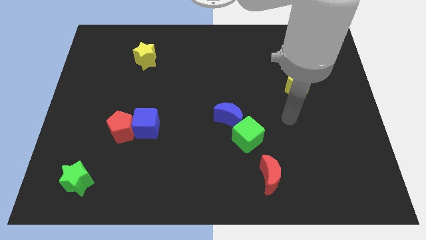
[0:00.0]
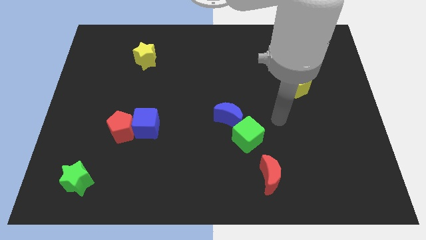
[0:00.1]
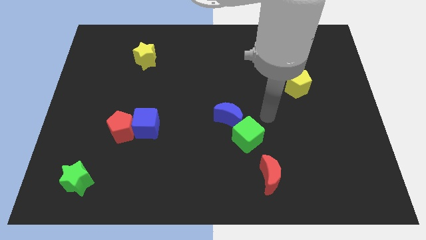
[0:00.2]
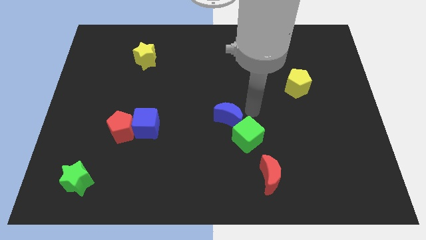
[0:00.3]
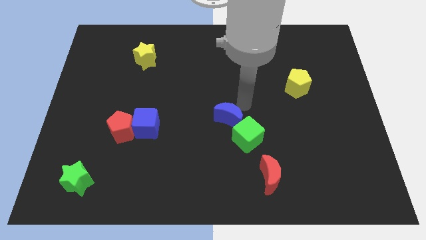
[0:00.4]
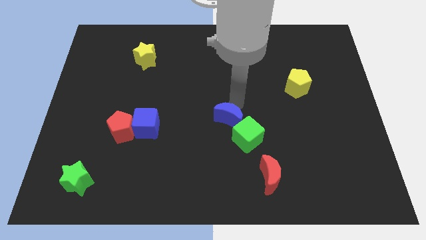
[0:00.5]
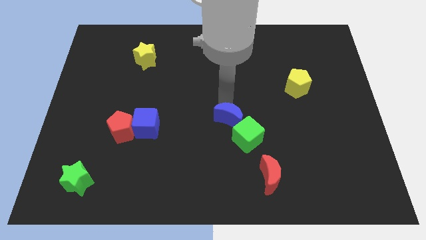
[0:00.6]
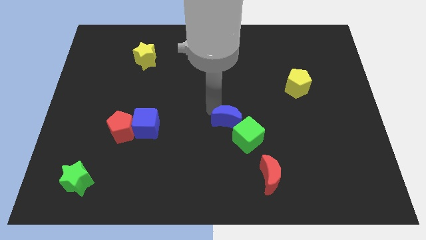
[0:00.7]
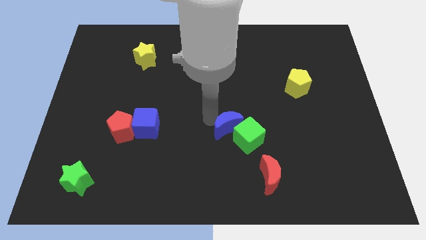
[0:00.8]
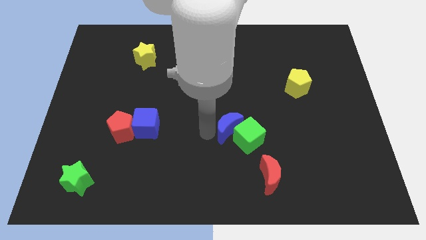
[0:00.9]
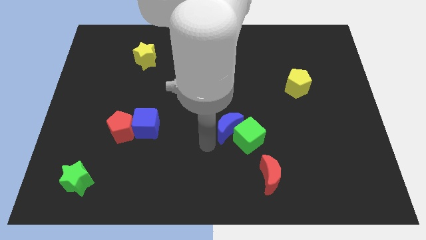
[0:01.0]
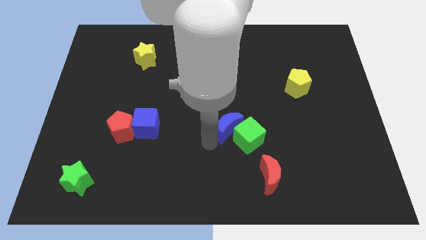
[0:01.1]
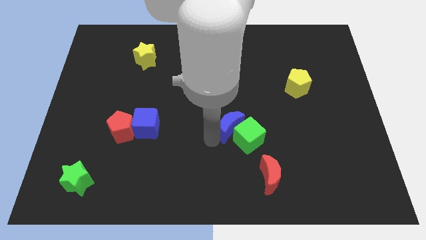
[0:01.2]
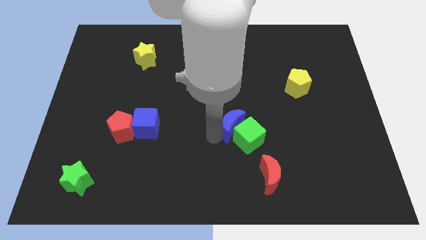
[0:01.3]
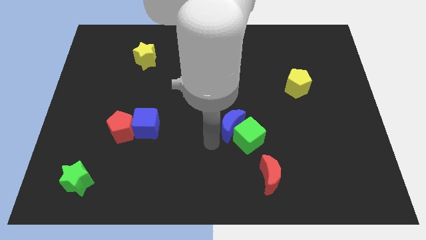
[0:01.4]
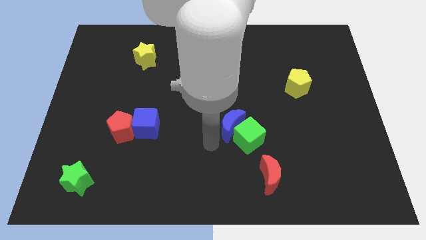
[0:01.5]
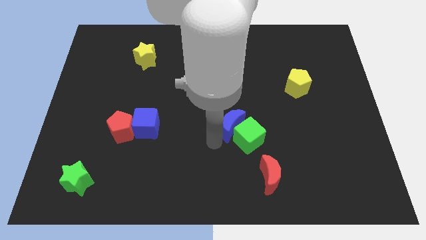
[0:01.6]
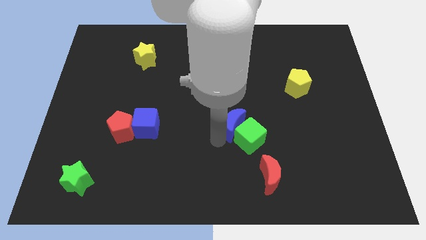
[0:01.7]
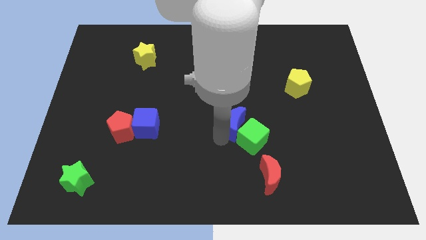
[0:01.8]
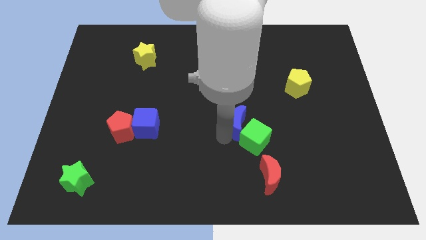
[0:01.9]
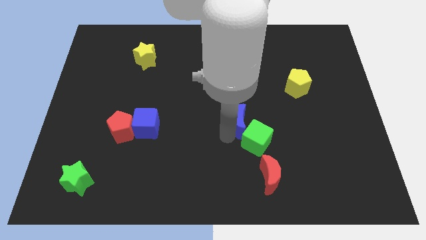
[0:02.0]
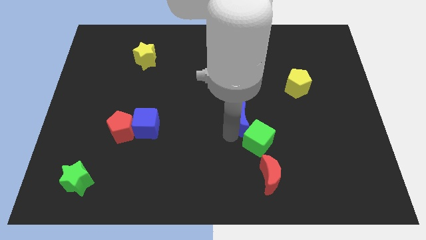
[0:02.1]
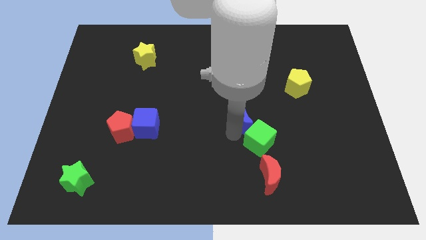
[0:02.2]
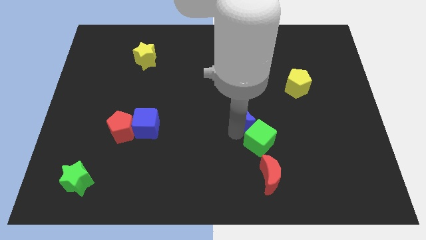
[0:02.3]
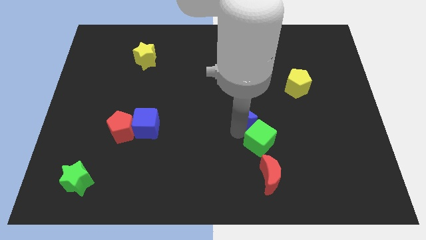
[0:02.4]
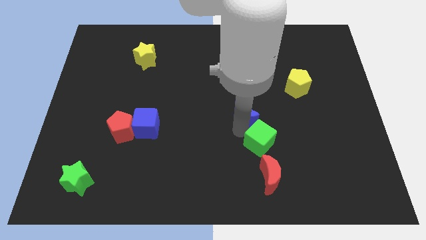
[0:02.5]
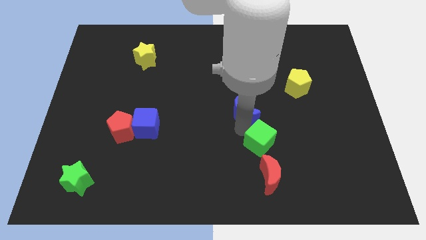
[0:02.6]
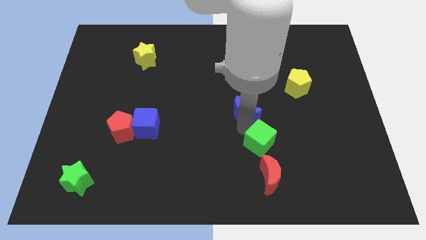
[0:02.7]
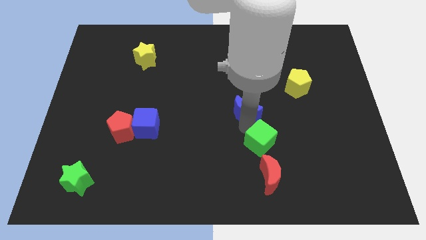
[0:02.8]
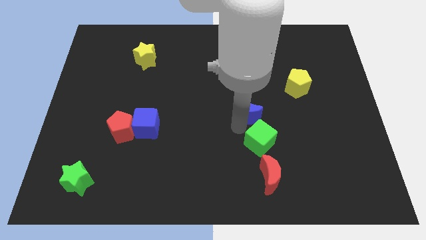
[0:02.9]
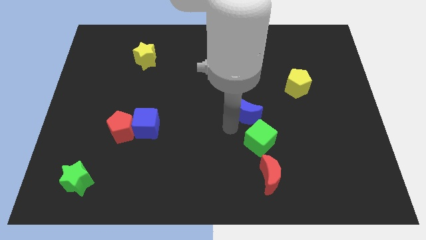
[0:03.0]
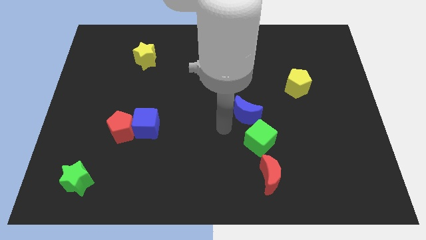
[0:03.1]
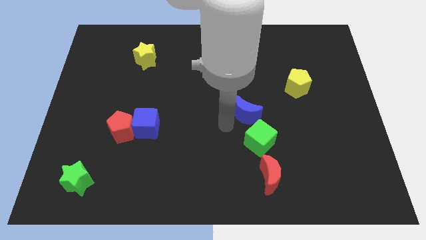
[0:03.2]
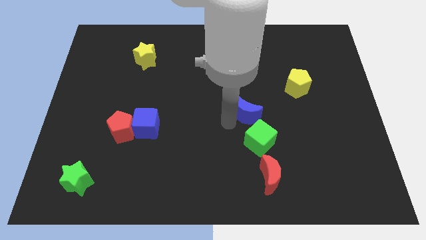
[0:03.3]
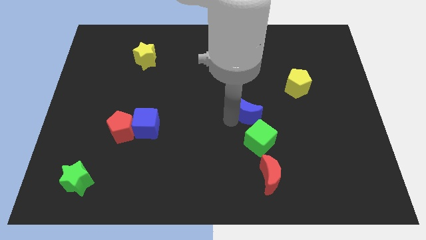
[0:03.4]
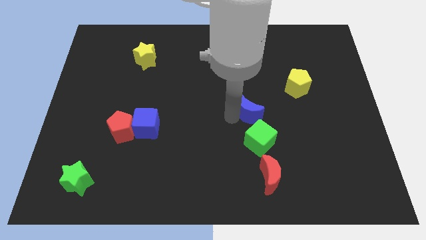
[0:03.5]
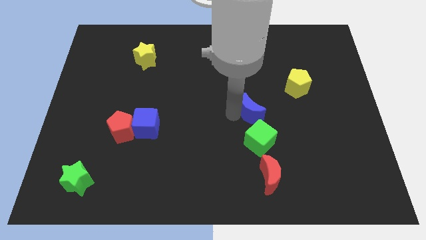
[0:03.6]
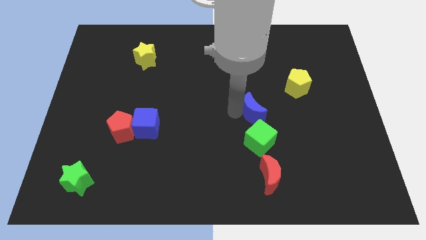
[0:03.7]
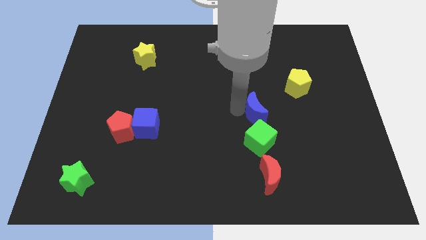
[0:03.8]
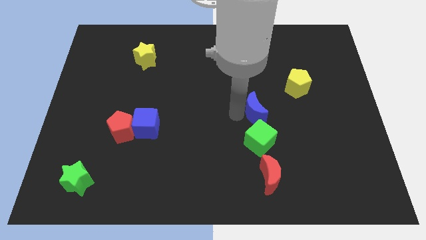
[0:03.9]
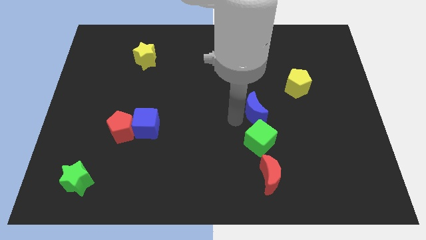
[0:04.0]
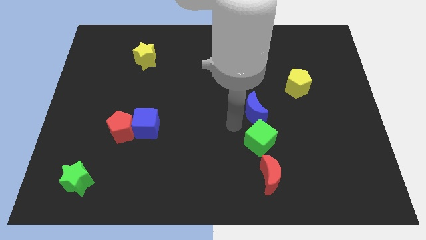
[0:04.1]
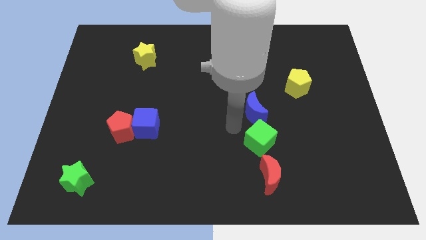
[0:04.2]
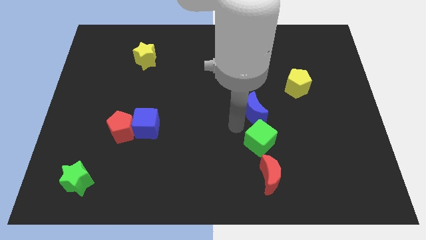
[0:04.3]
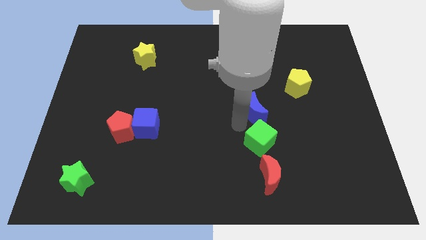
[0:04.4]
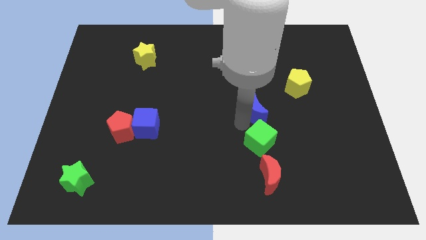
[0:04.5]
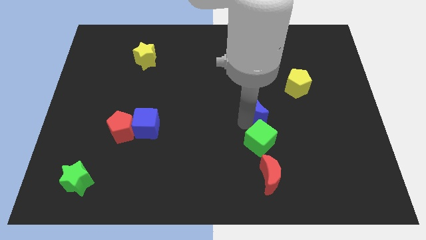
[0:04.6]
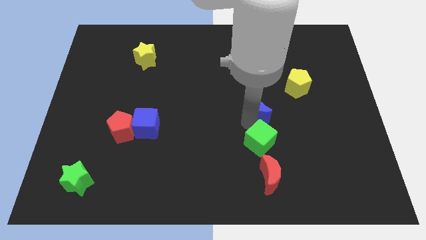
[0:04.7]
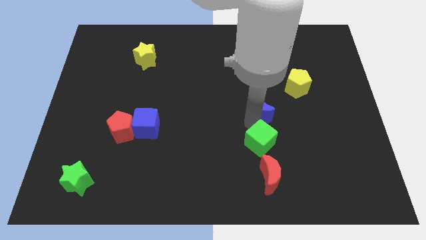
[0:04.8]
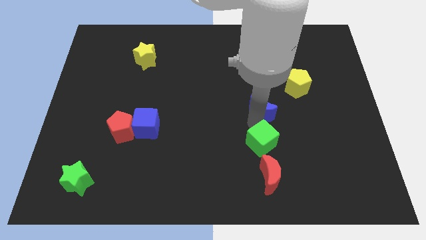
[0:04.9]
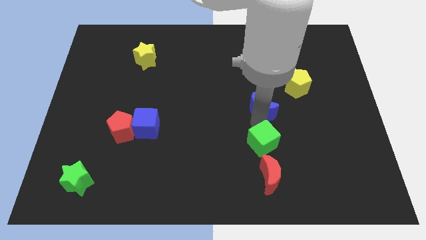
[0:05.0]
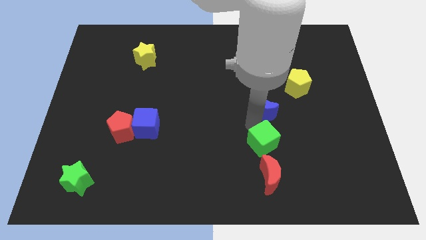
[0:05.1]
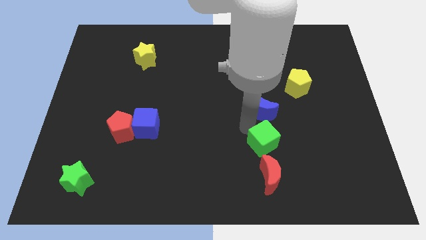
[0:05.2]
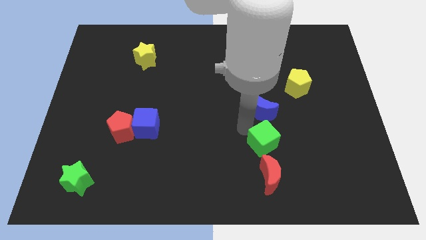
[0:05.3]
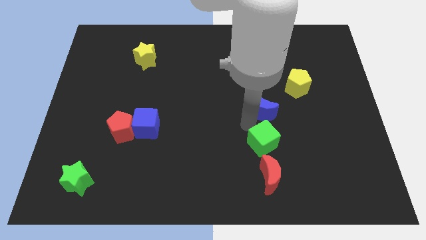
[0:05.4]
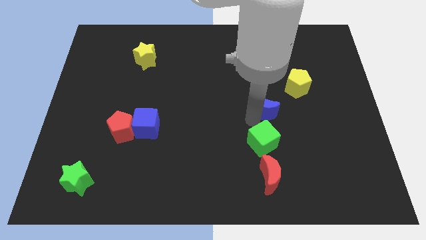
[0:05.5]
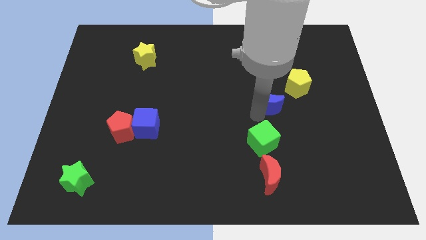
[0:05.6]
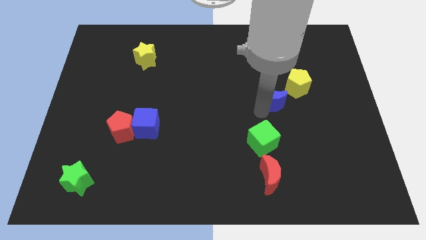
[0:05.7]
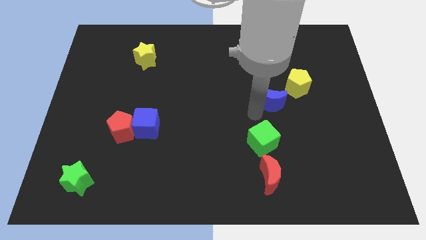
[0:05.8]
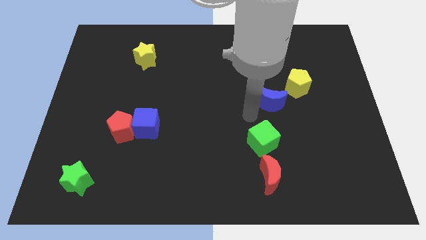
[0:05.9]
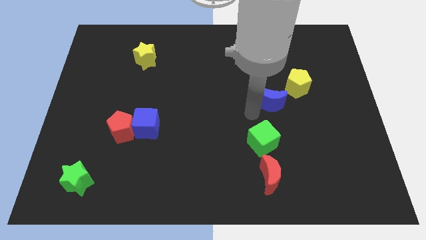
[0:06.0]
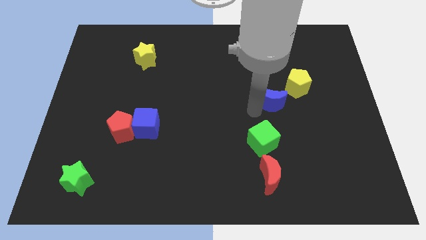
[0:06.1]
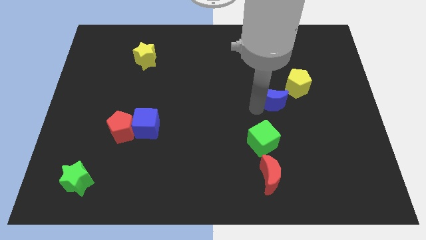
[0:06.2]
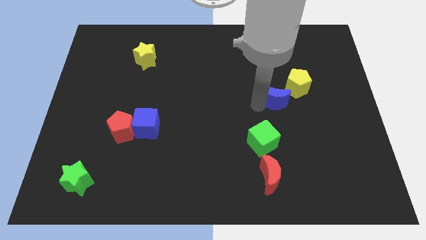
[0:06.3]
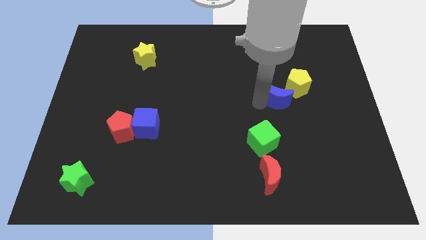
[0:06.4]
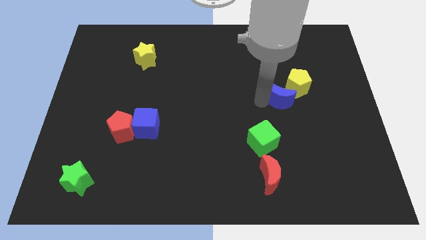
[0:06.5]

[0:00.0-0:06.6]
push the blue moon towards the yellow pentagon
